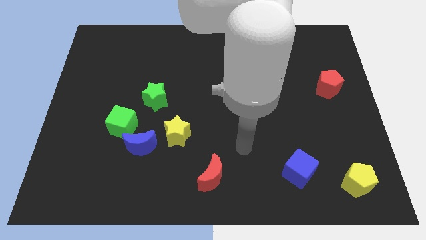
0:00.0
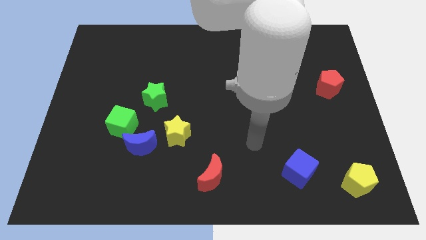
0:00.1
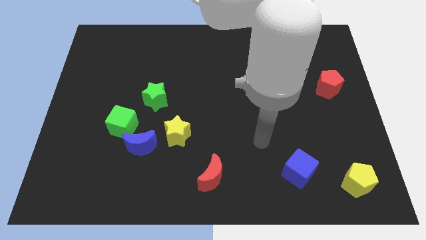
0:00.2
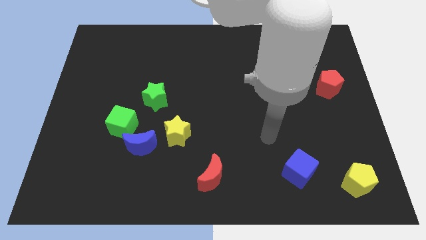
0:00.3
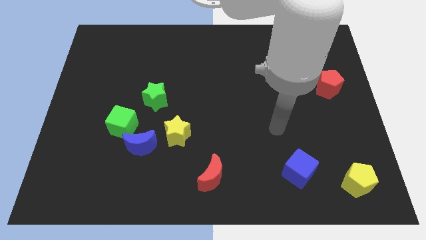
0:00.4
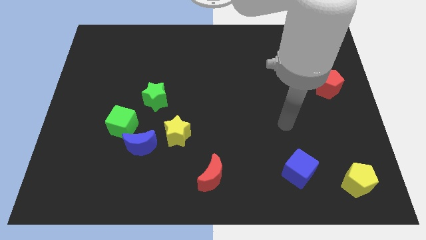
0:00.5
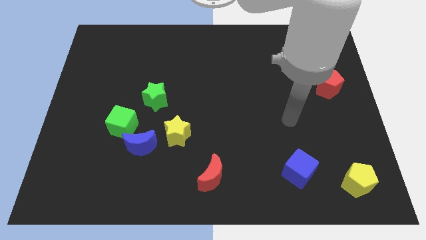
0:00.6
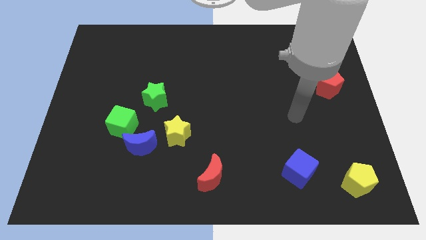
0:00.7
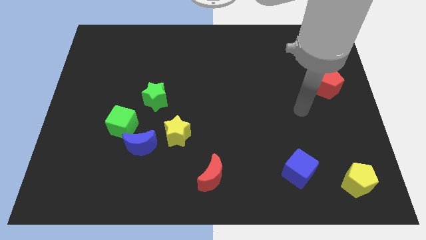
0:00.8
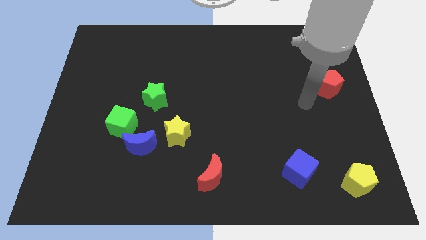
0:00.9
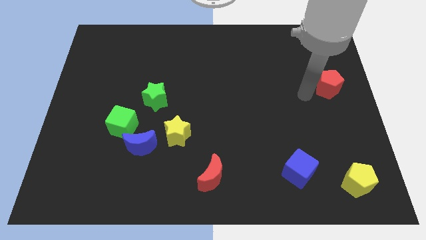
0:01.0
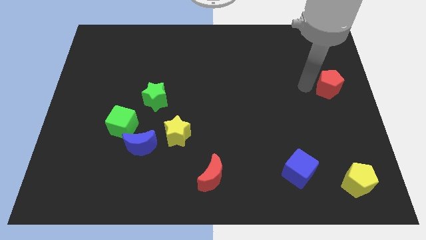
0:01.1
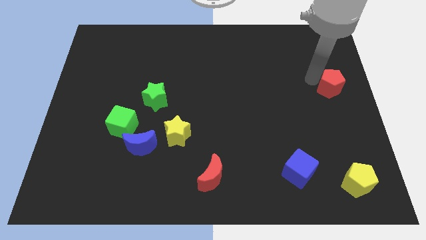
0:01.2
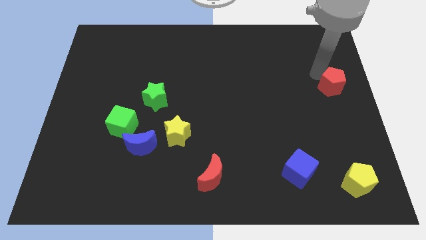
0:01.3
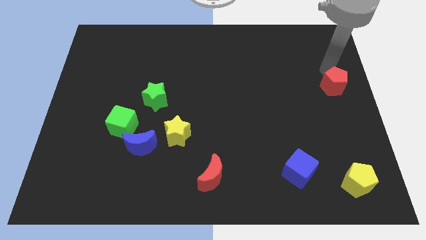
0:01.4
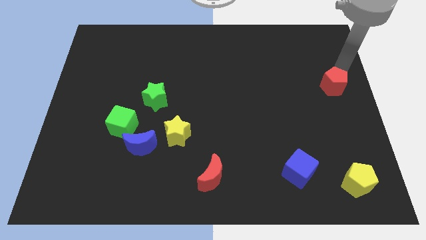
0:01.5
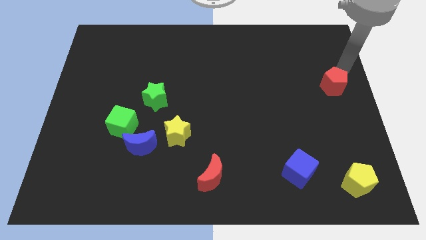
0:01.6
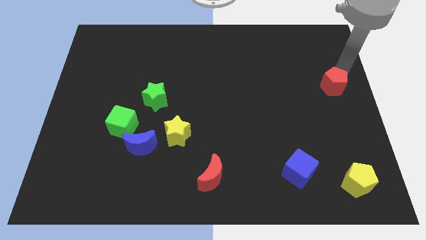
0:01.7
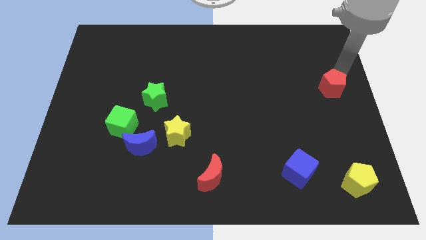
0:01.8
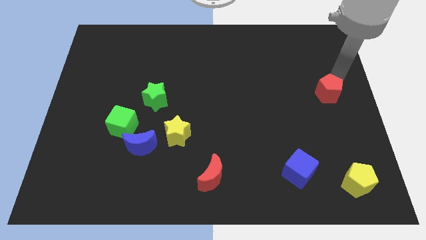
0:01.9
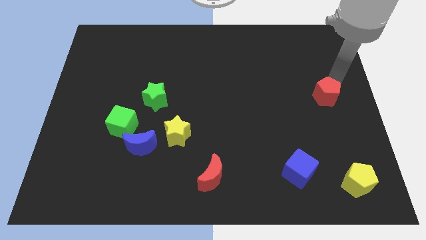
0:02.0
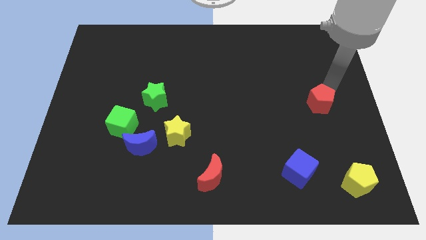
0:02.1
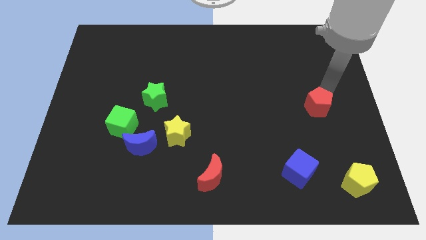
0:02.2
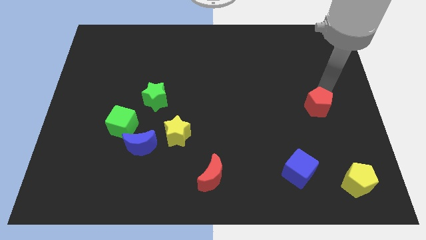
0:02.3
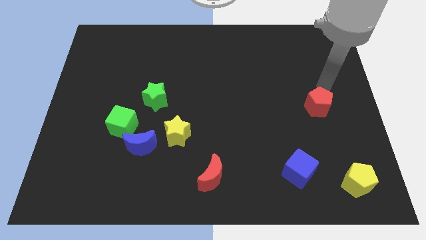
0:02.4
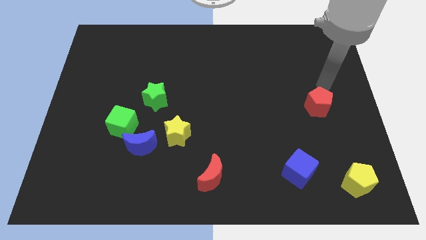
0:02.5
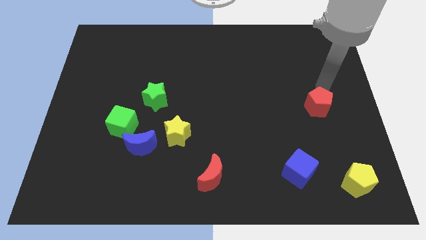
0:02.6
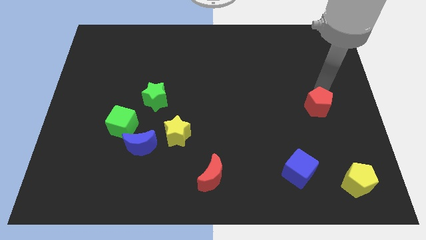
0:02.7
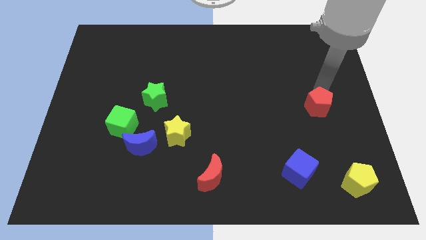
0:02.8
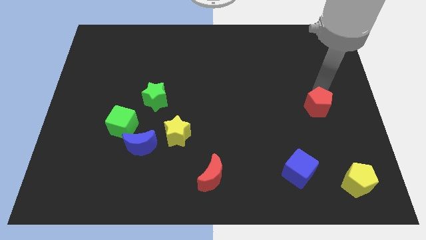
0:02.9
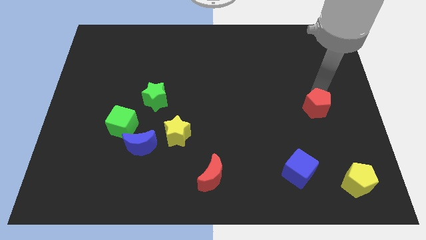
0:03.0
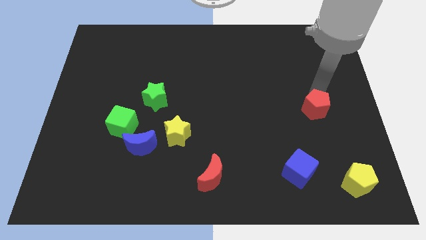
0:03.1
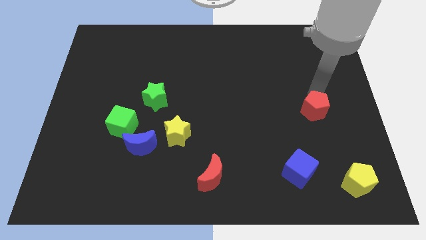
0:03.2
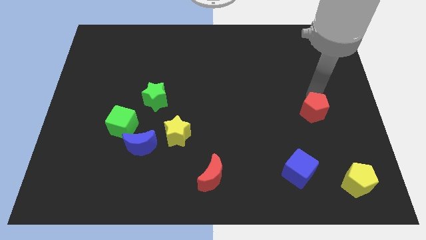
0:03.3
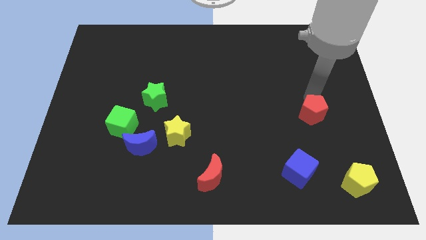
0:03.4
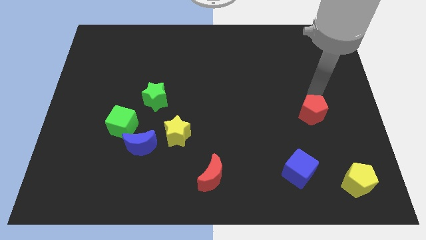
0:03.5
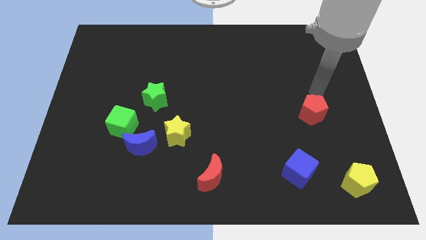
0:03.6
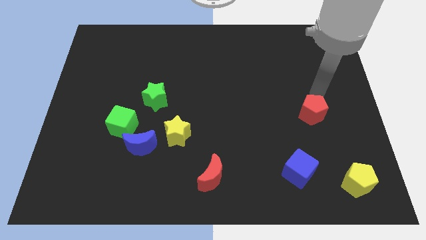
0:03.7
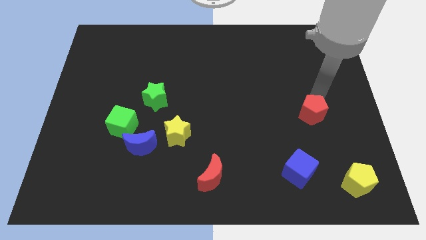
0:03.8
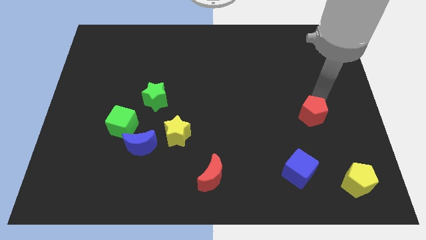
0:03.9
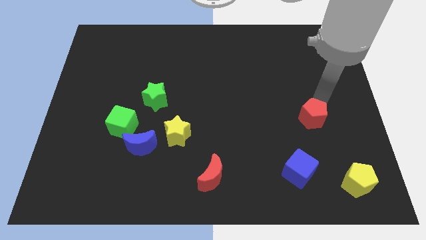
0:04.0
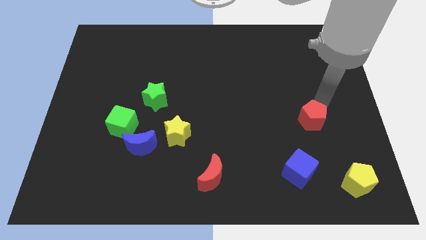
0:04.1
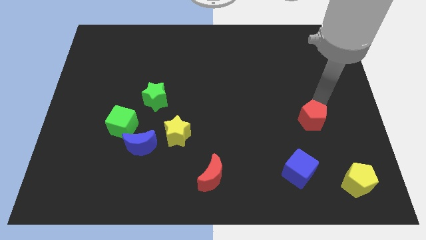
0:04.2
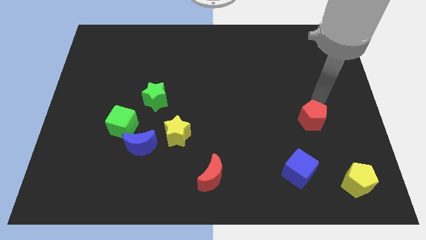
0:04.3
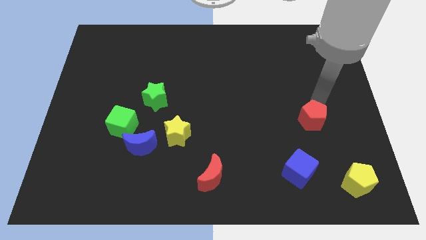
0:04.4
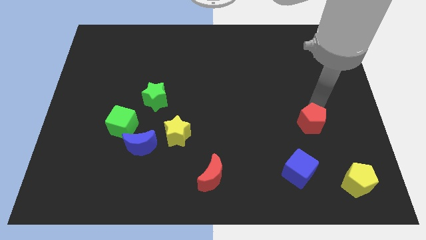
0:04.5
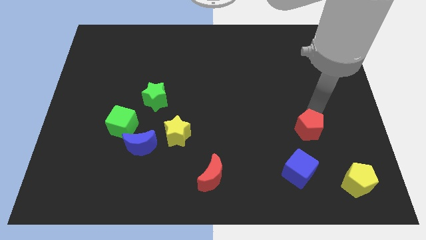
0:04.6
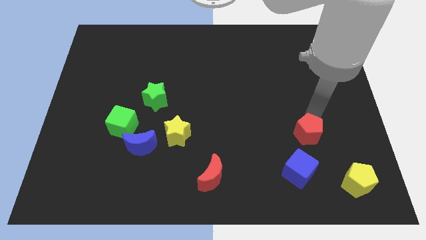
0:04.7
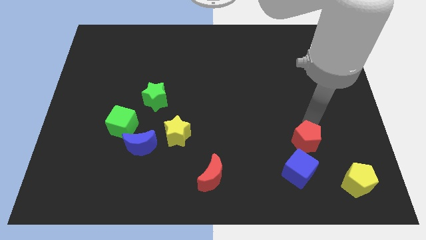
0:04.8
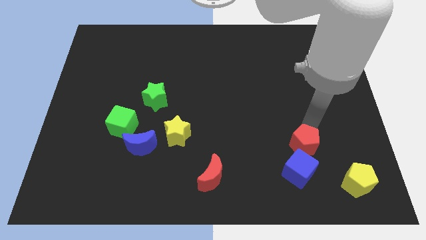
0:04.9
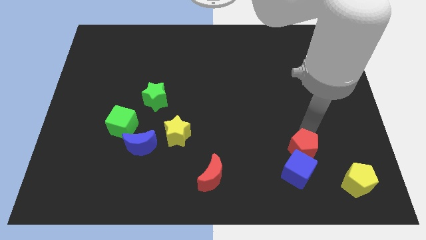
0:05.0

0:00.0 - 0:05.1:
move the red pentagon next to the blue cube

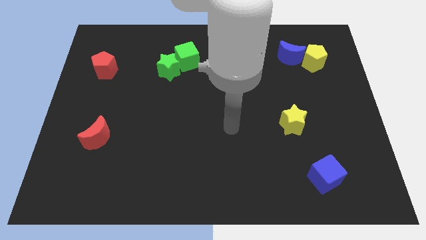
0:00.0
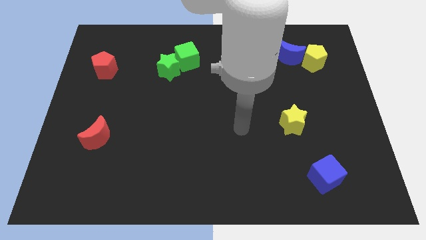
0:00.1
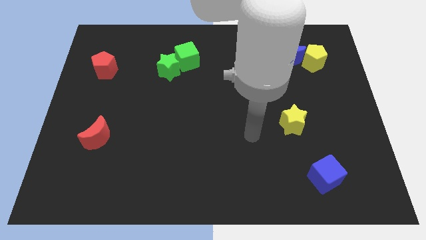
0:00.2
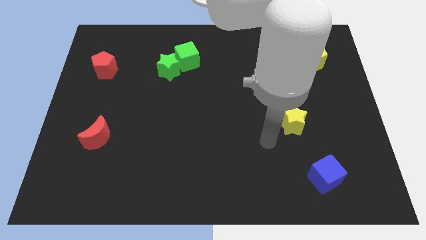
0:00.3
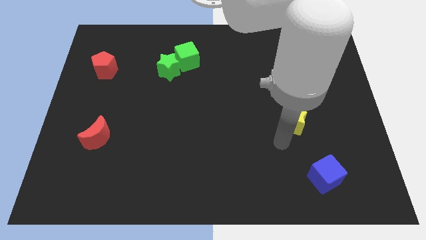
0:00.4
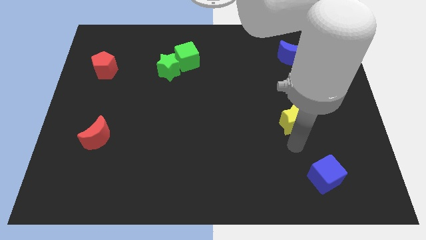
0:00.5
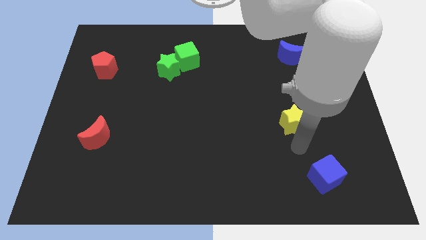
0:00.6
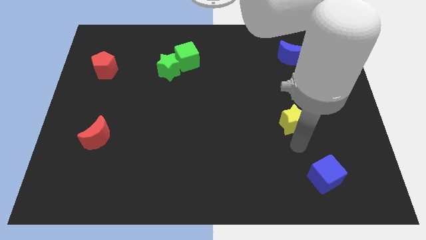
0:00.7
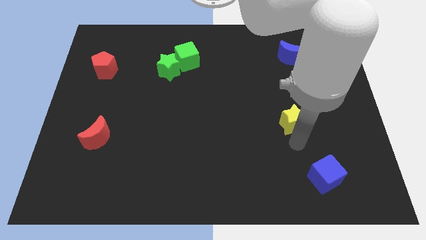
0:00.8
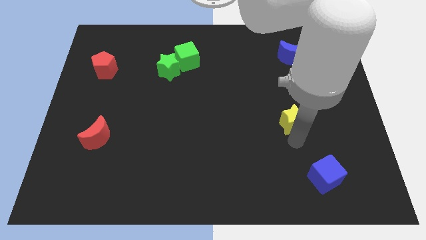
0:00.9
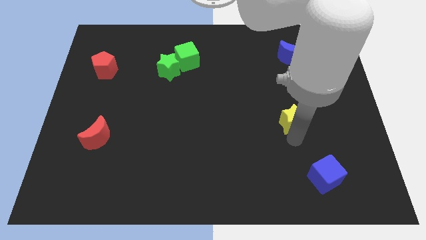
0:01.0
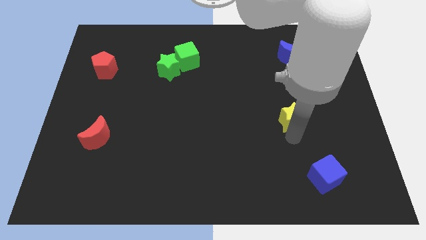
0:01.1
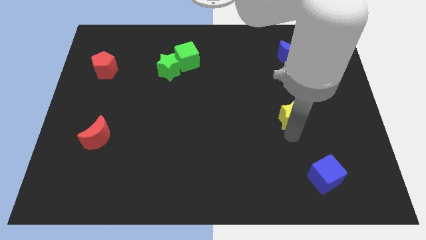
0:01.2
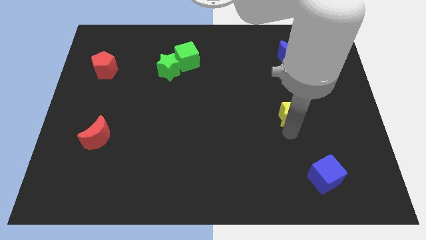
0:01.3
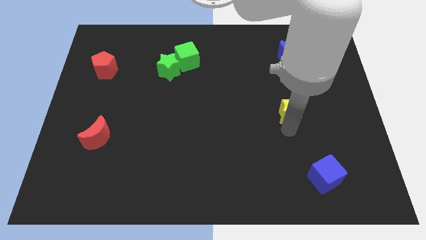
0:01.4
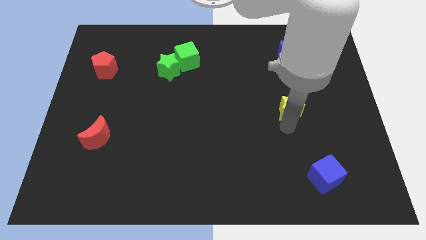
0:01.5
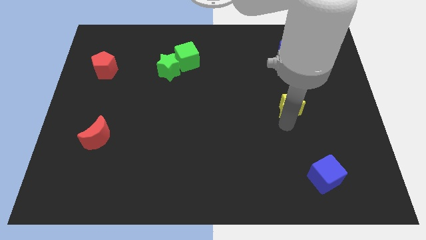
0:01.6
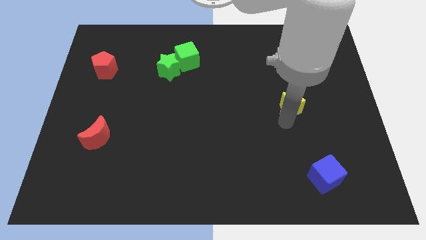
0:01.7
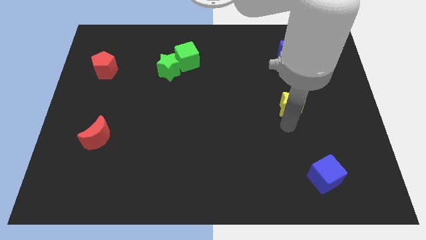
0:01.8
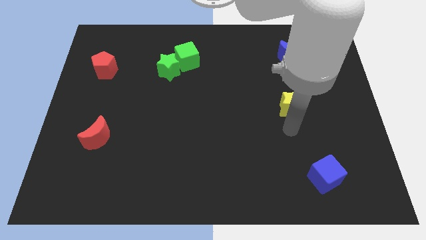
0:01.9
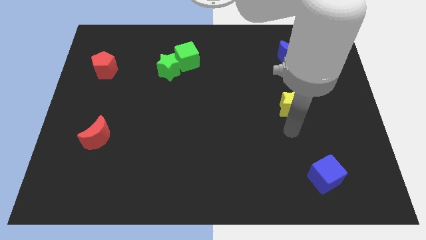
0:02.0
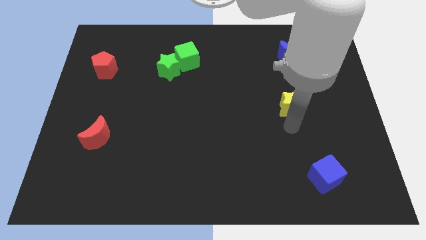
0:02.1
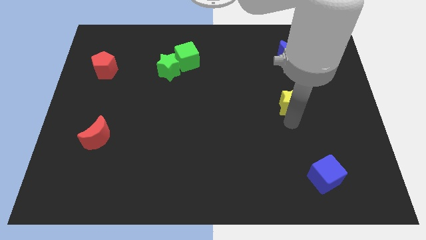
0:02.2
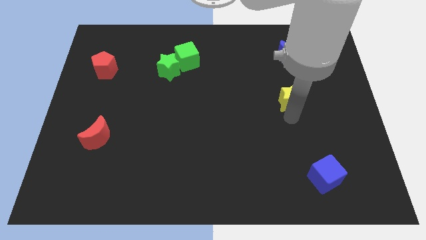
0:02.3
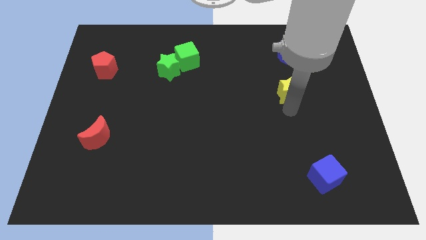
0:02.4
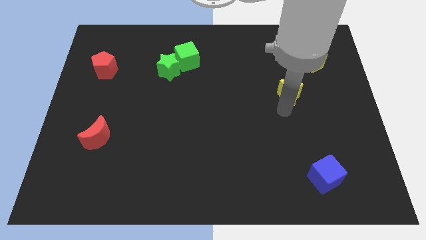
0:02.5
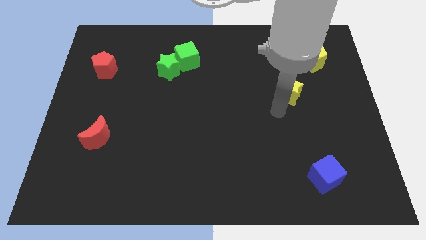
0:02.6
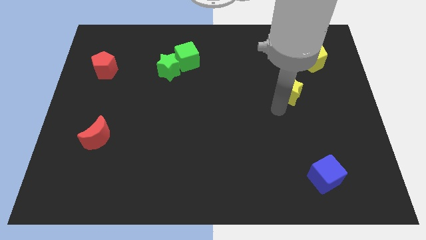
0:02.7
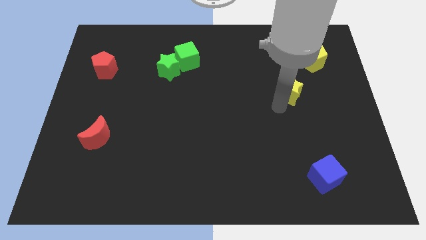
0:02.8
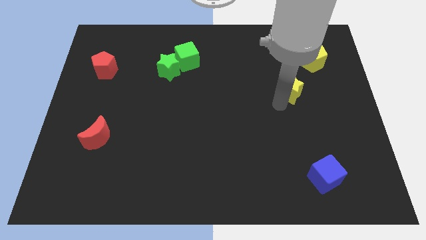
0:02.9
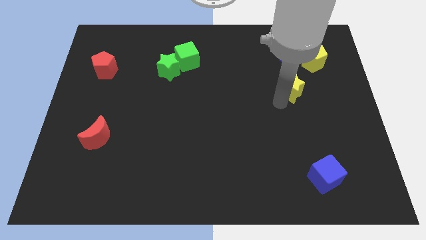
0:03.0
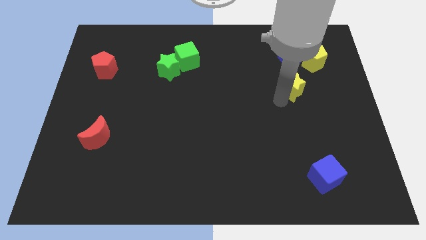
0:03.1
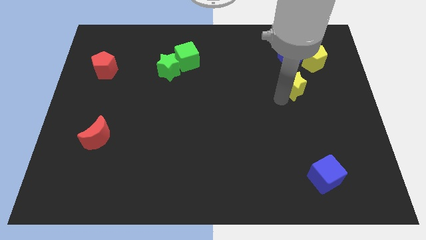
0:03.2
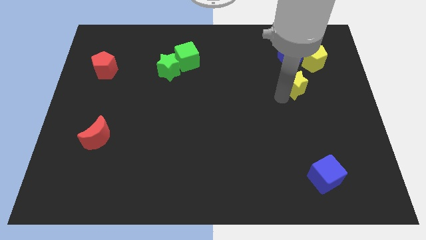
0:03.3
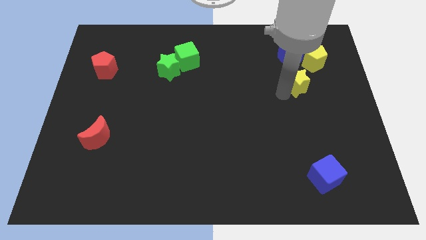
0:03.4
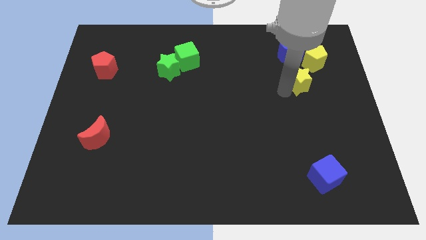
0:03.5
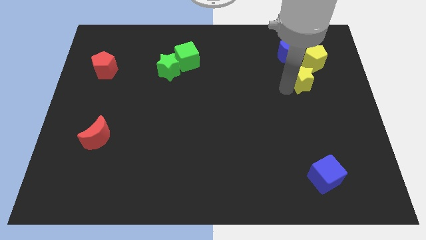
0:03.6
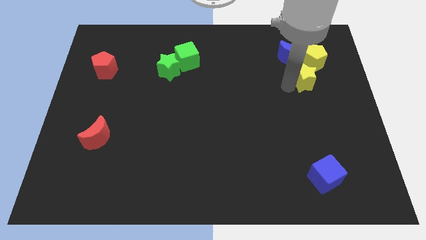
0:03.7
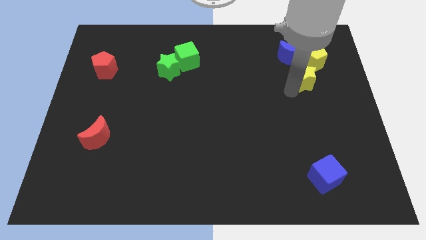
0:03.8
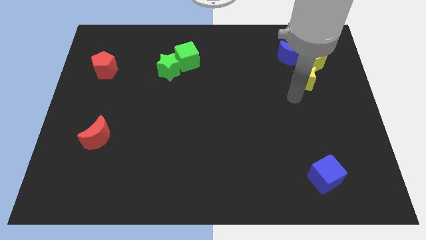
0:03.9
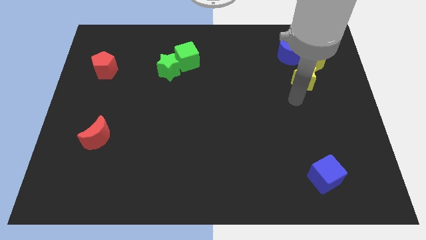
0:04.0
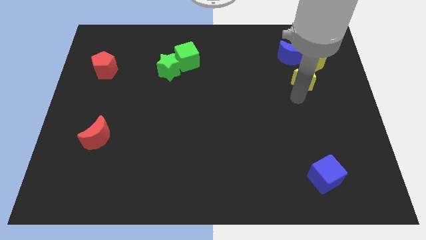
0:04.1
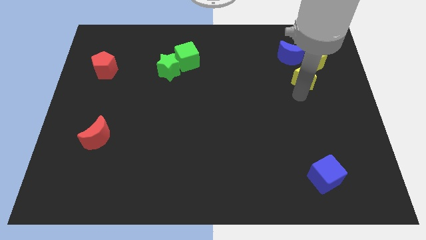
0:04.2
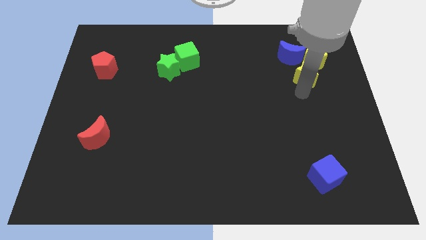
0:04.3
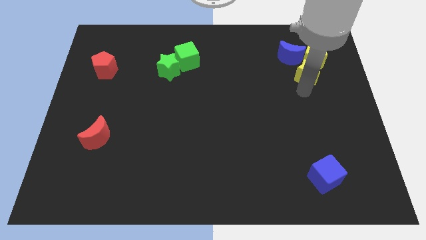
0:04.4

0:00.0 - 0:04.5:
push the yellow star towards the yellow pentagon
